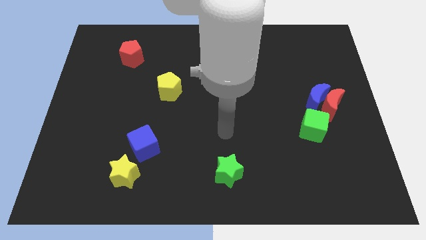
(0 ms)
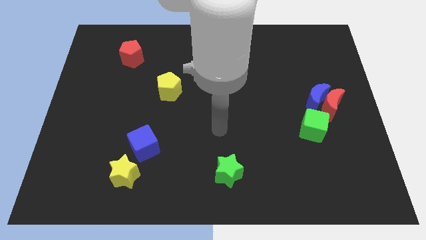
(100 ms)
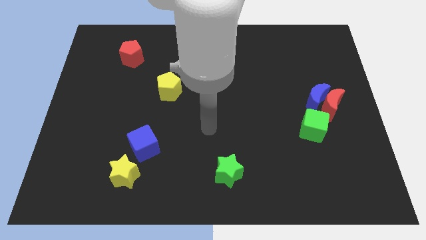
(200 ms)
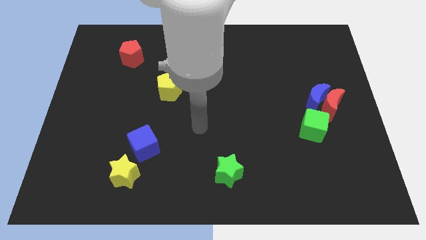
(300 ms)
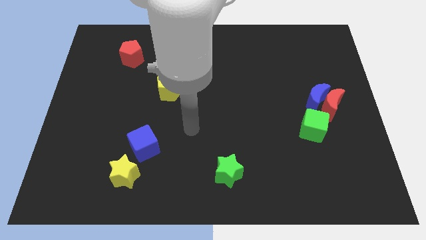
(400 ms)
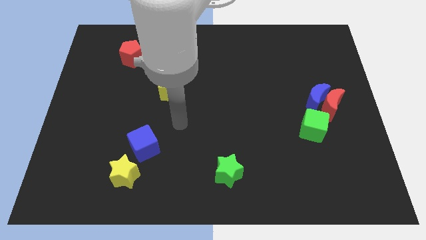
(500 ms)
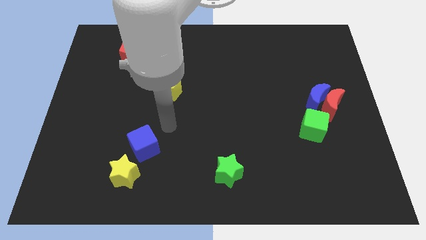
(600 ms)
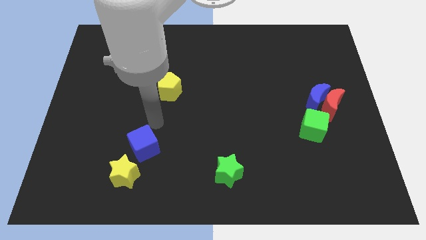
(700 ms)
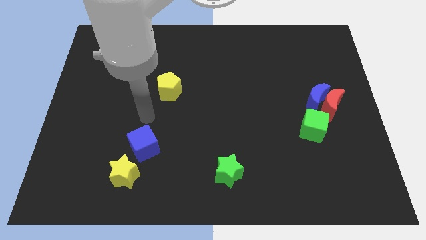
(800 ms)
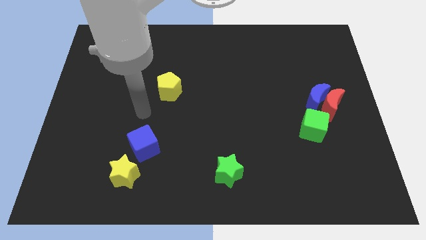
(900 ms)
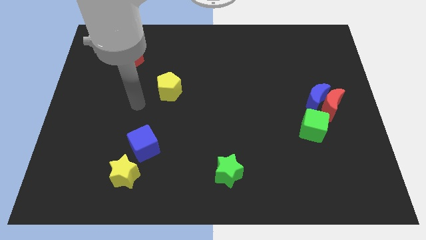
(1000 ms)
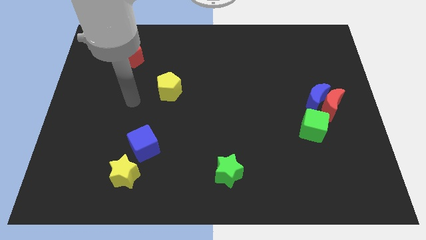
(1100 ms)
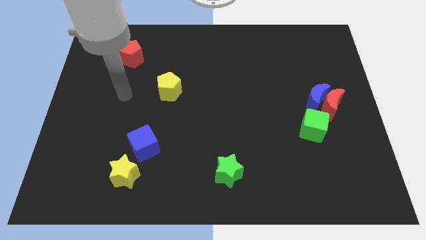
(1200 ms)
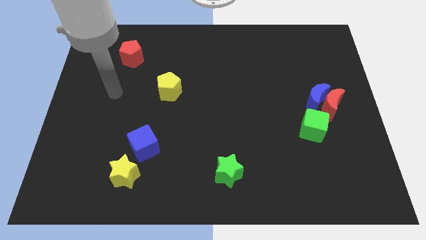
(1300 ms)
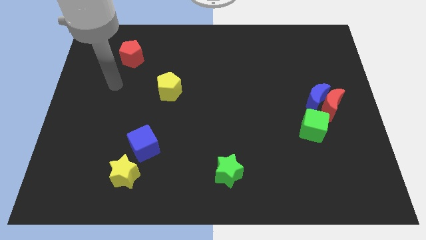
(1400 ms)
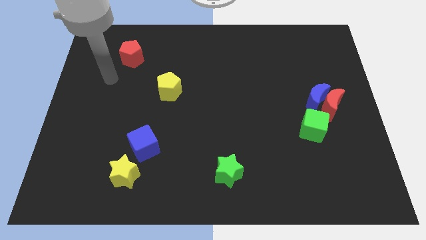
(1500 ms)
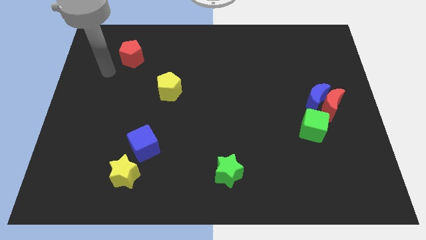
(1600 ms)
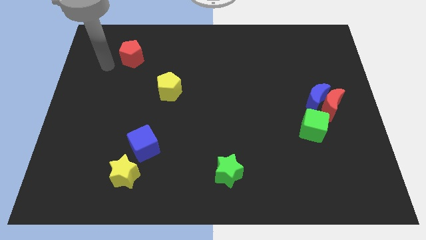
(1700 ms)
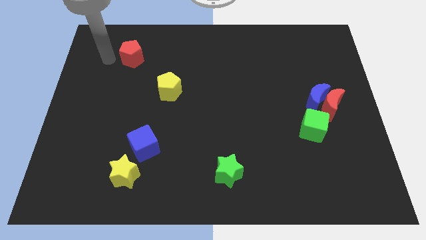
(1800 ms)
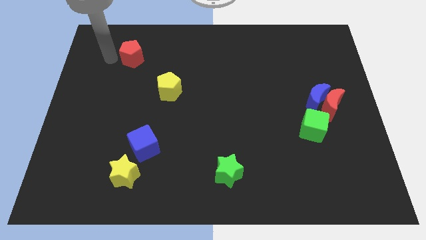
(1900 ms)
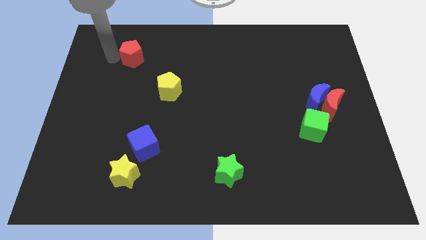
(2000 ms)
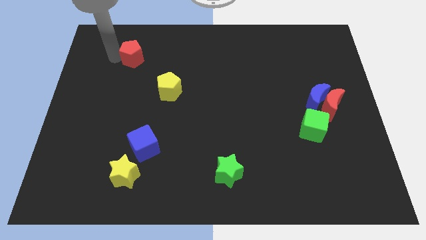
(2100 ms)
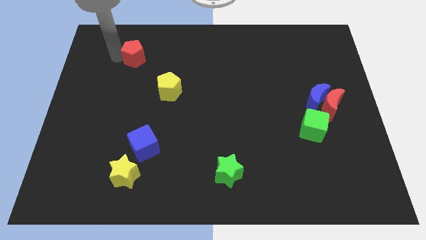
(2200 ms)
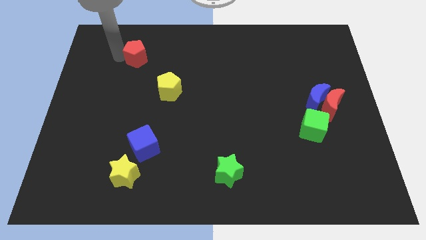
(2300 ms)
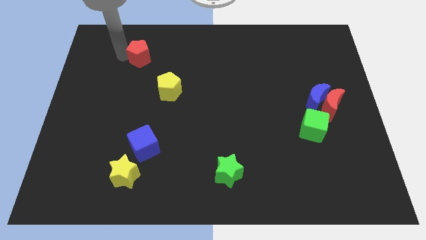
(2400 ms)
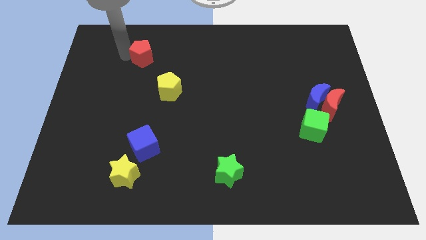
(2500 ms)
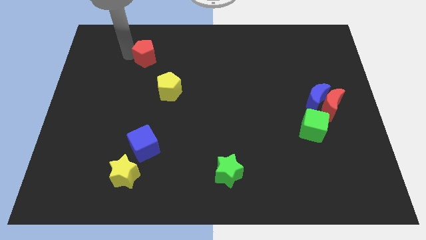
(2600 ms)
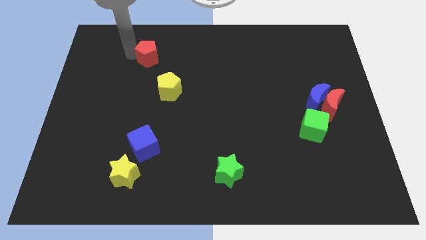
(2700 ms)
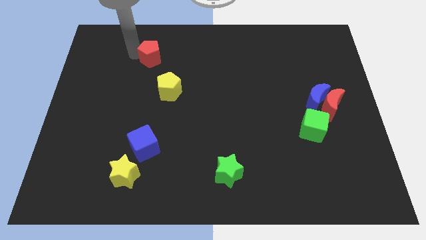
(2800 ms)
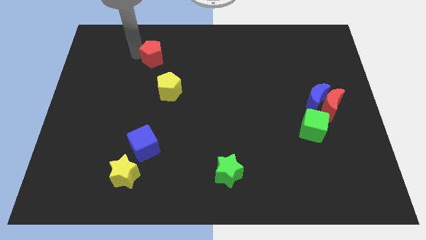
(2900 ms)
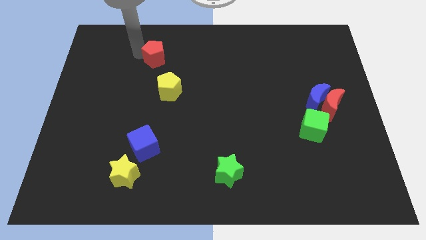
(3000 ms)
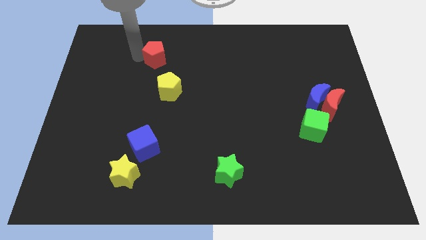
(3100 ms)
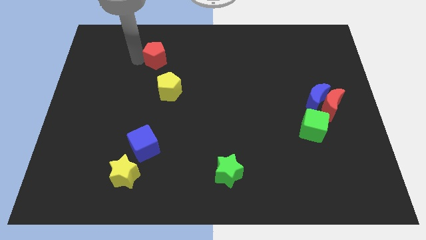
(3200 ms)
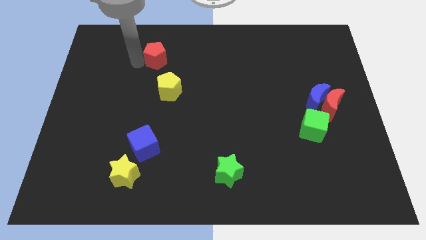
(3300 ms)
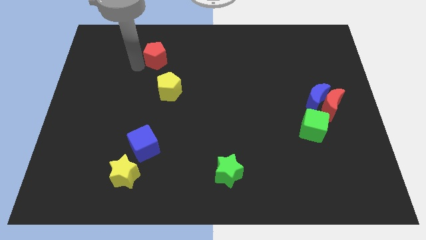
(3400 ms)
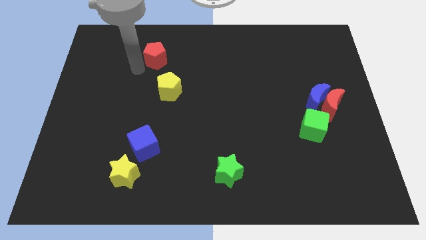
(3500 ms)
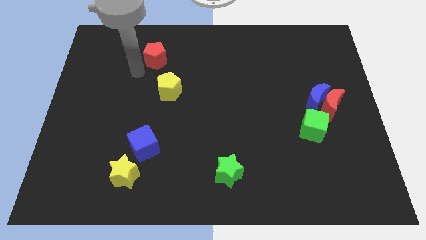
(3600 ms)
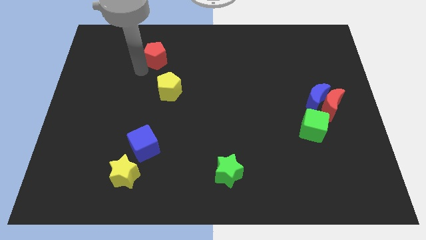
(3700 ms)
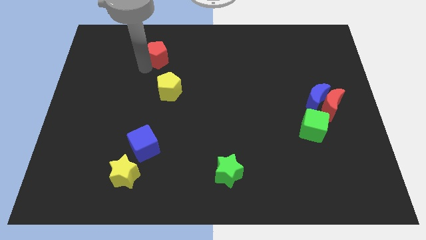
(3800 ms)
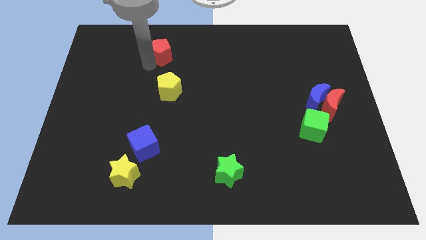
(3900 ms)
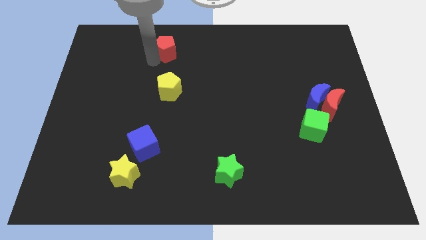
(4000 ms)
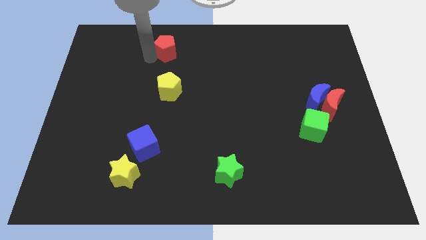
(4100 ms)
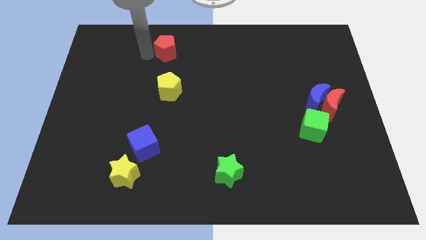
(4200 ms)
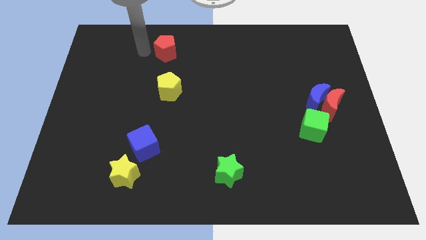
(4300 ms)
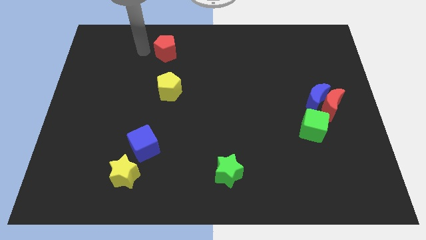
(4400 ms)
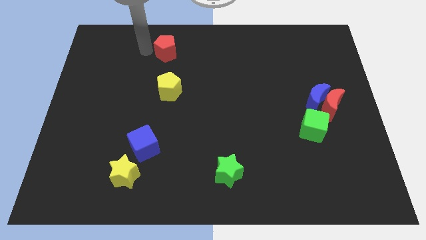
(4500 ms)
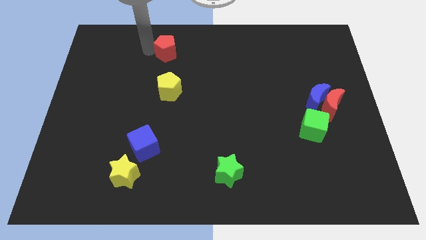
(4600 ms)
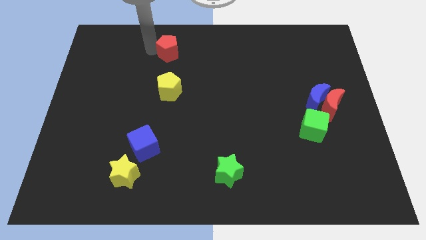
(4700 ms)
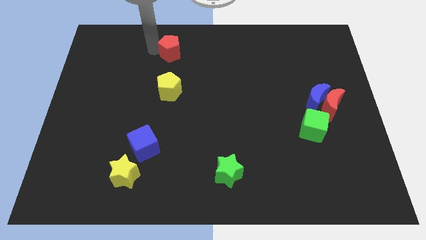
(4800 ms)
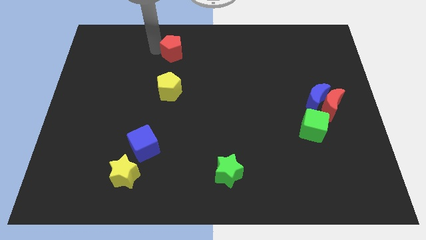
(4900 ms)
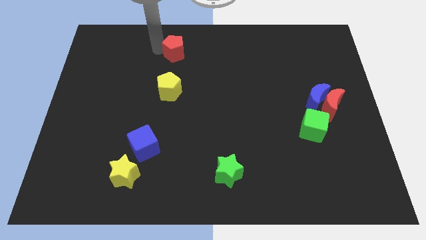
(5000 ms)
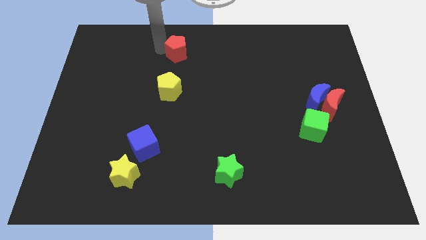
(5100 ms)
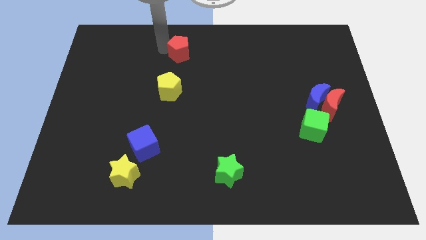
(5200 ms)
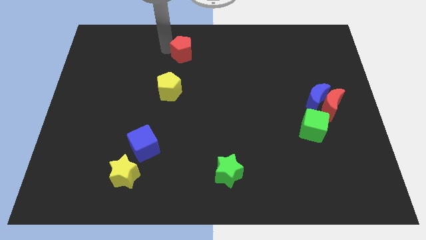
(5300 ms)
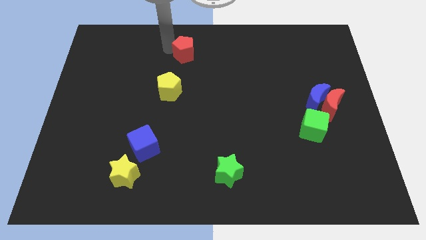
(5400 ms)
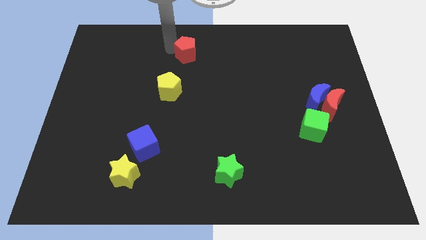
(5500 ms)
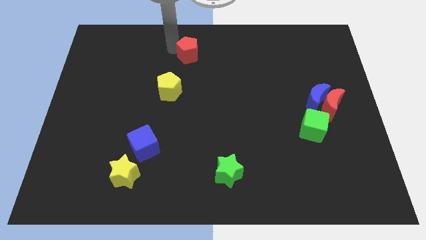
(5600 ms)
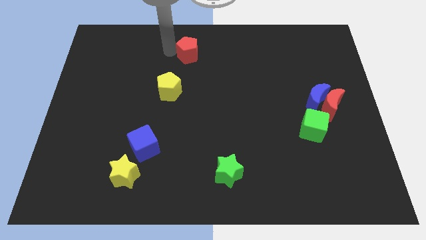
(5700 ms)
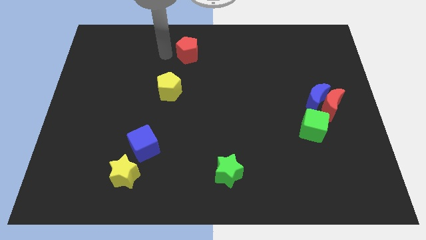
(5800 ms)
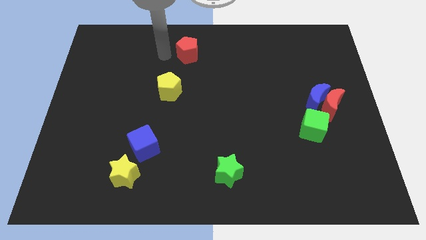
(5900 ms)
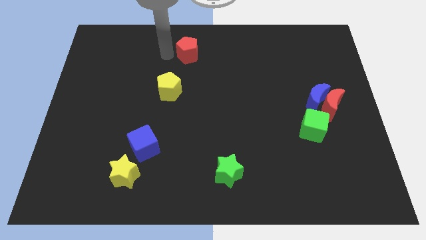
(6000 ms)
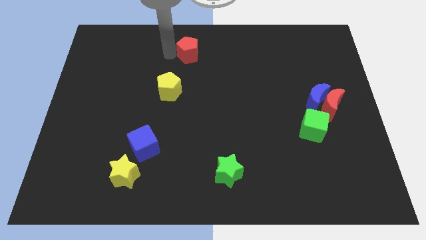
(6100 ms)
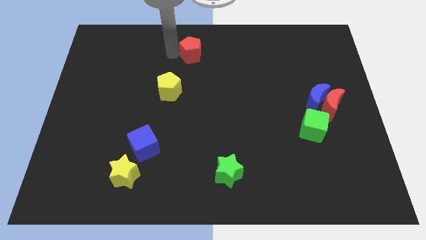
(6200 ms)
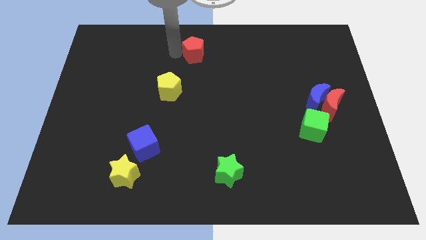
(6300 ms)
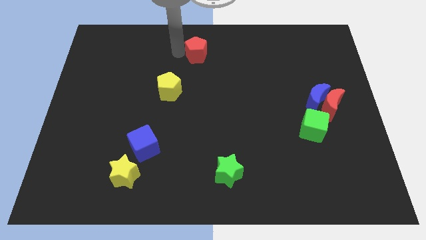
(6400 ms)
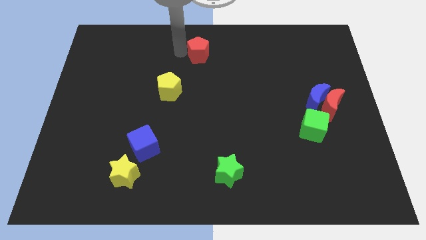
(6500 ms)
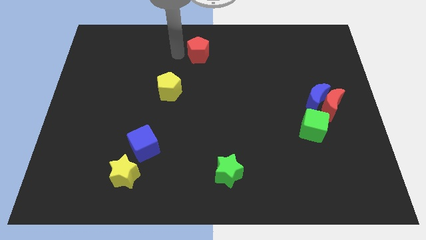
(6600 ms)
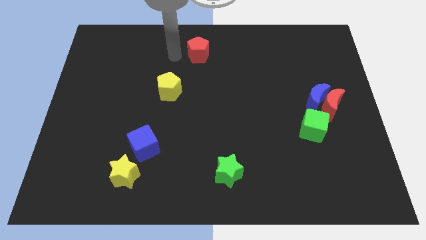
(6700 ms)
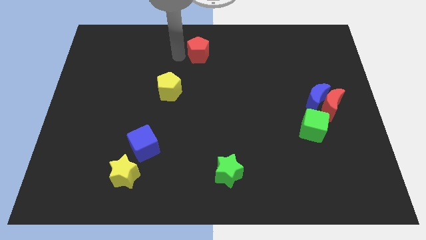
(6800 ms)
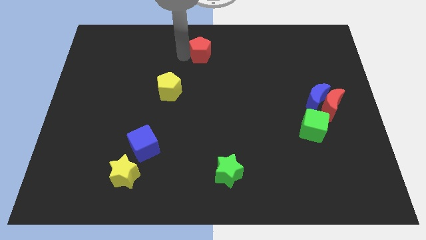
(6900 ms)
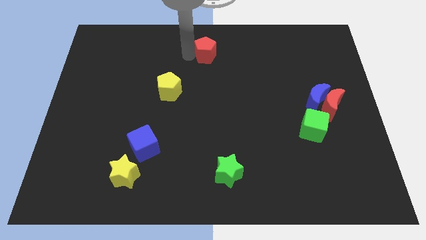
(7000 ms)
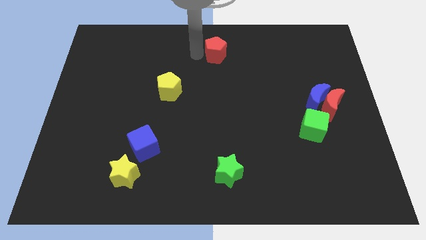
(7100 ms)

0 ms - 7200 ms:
move the red pentagon to the right

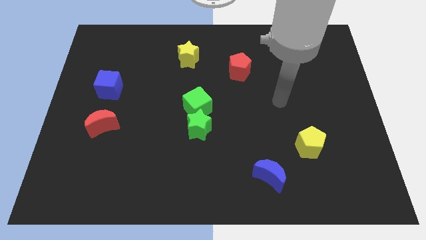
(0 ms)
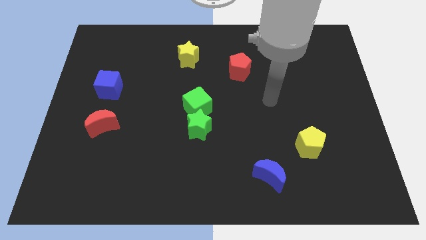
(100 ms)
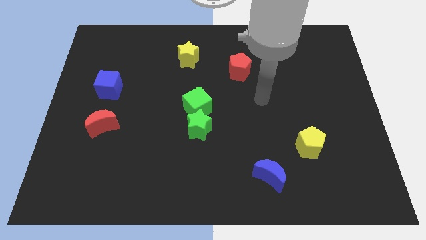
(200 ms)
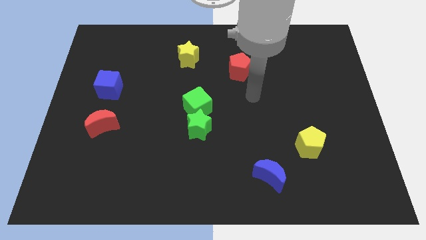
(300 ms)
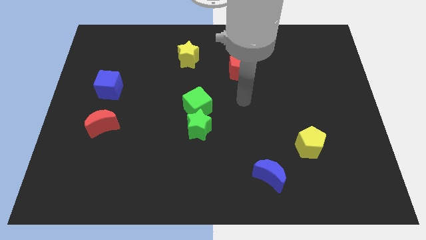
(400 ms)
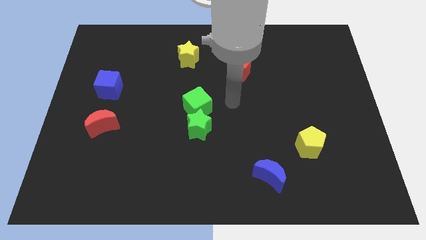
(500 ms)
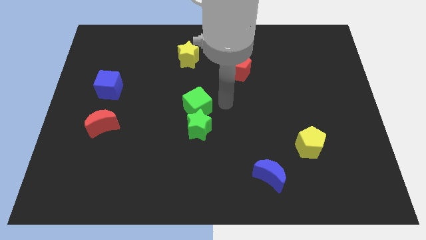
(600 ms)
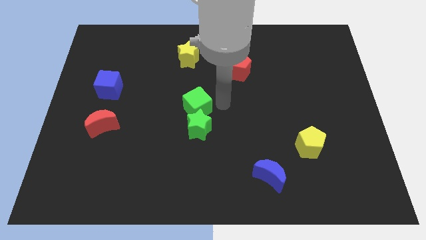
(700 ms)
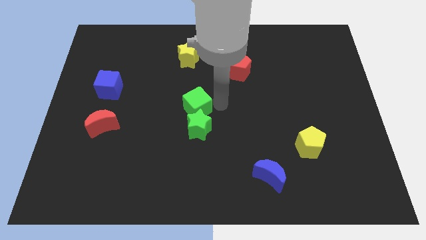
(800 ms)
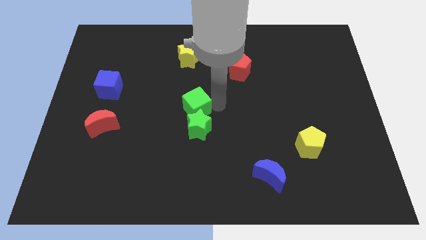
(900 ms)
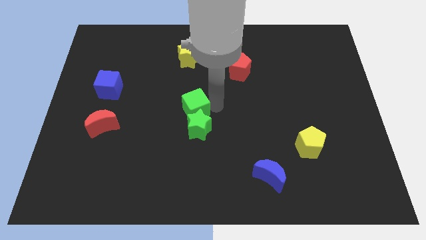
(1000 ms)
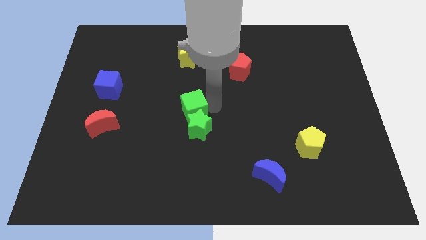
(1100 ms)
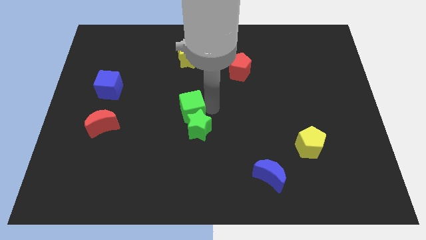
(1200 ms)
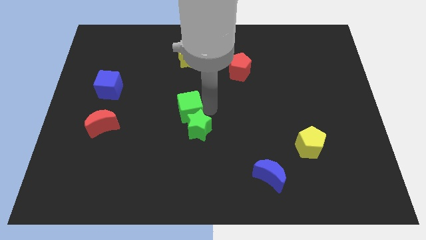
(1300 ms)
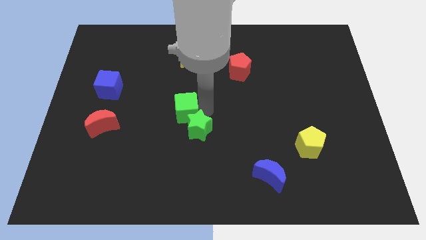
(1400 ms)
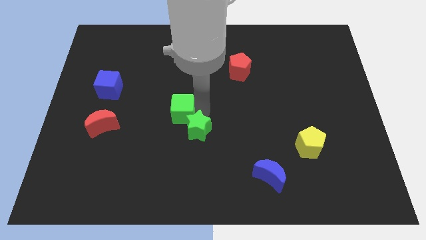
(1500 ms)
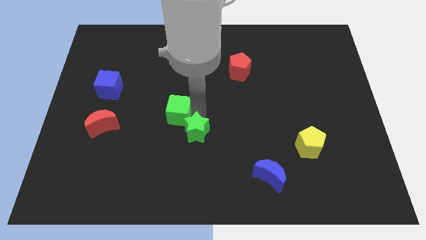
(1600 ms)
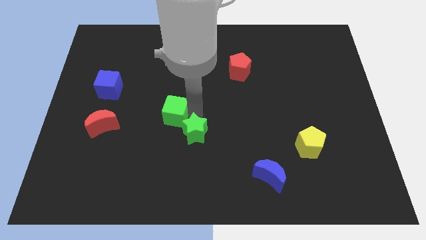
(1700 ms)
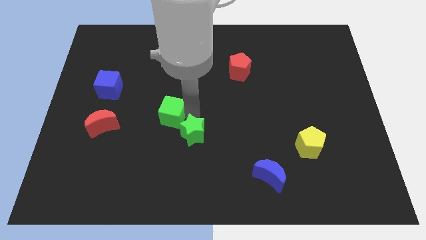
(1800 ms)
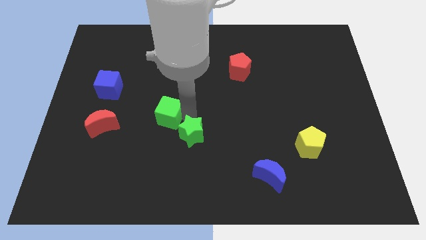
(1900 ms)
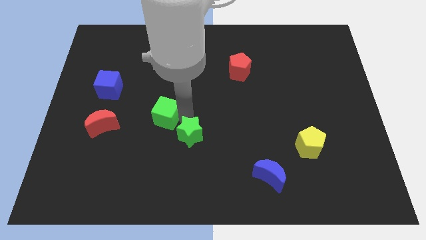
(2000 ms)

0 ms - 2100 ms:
slide the green cube a little to the left
